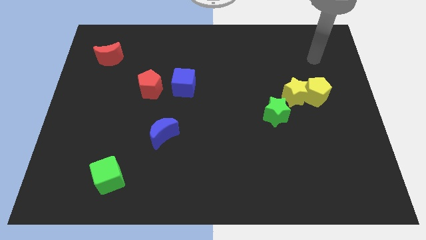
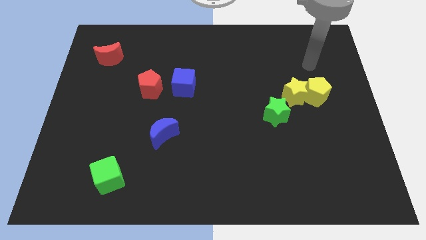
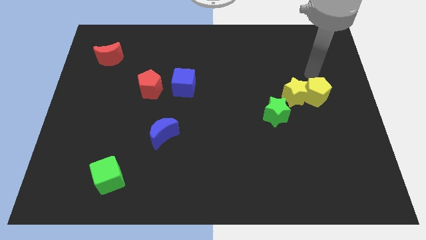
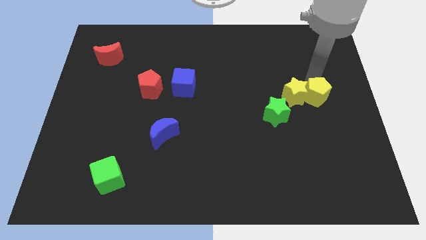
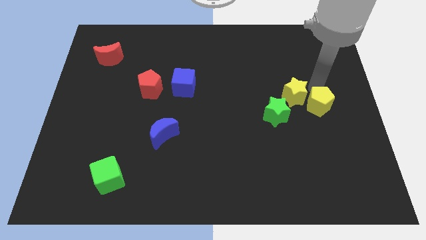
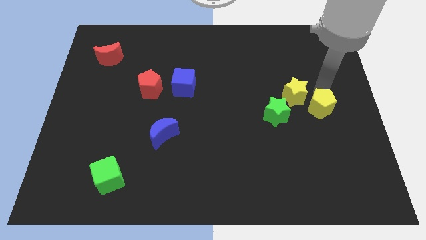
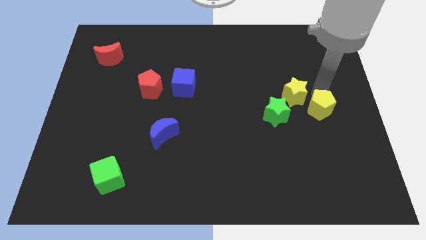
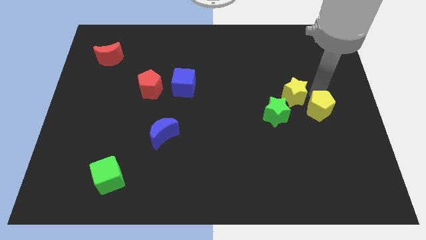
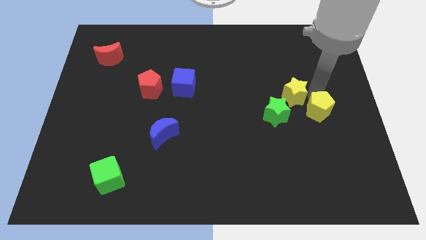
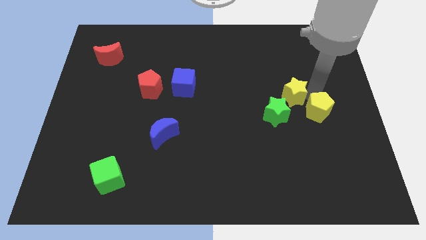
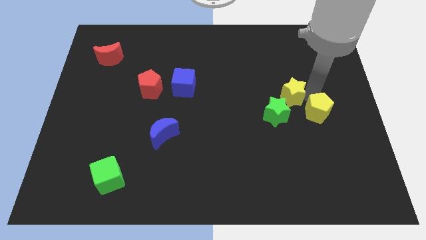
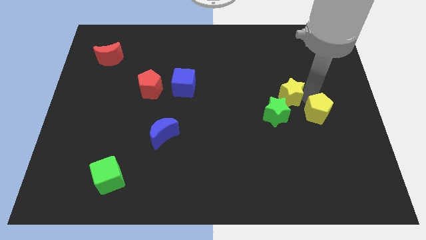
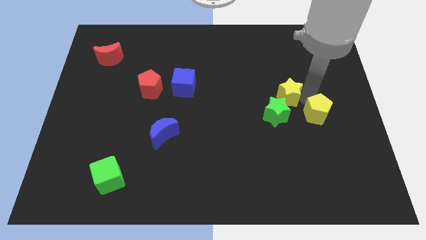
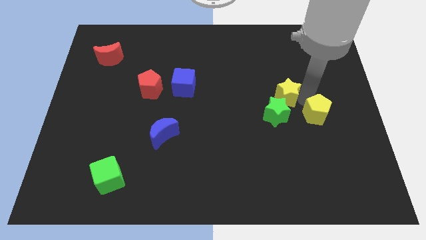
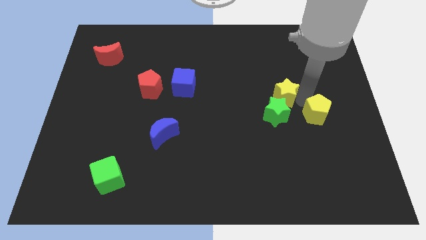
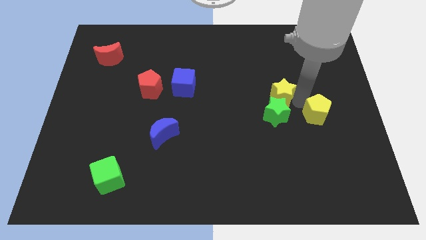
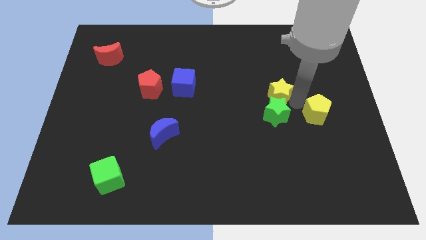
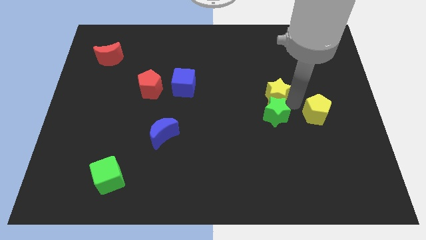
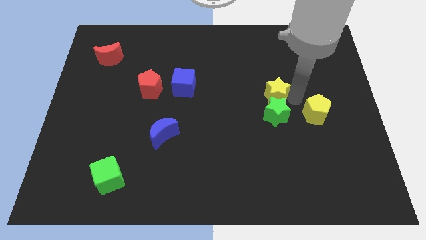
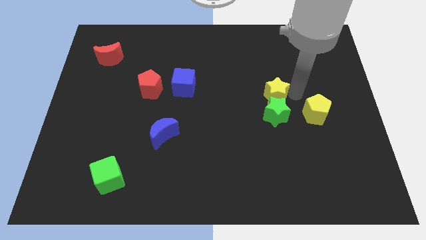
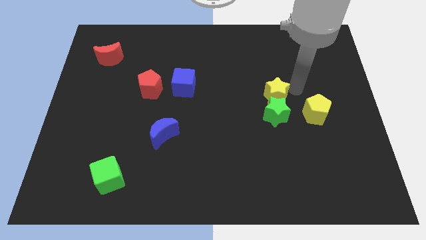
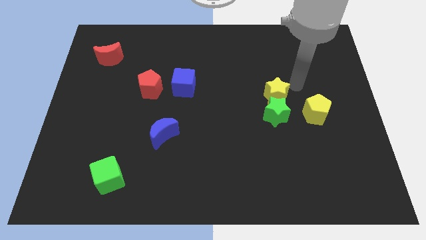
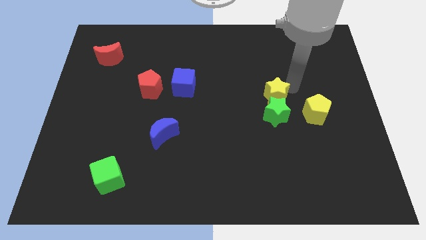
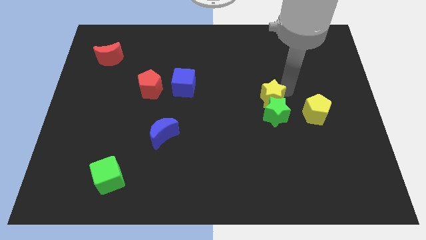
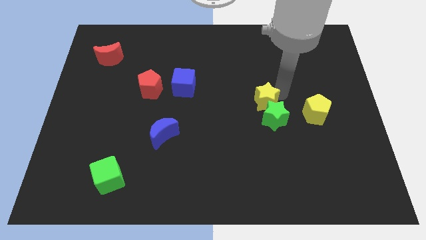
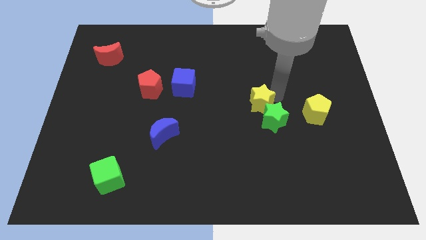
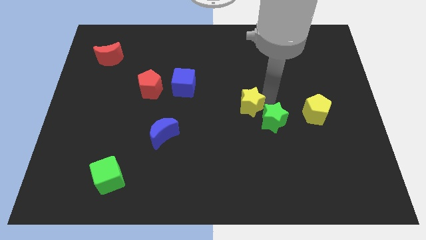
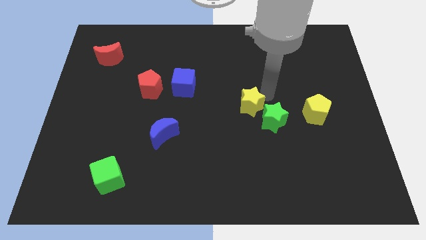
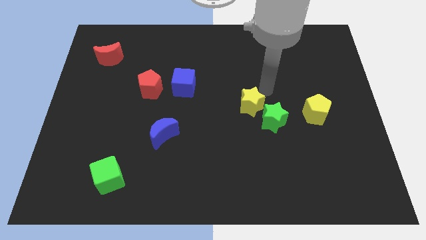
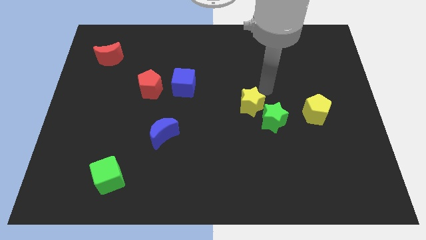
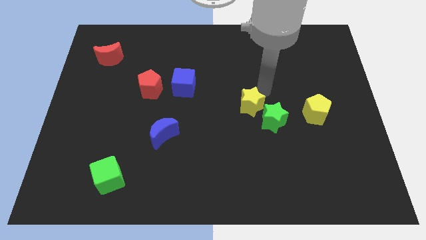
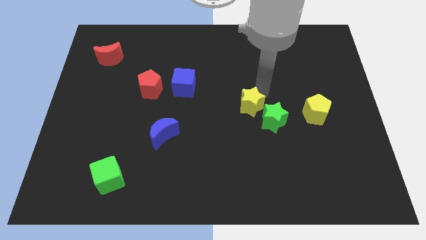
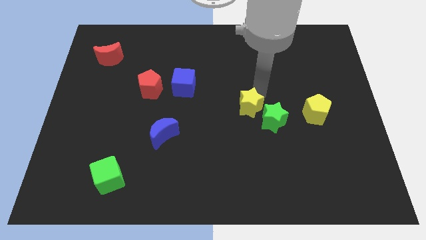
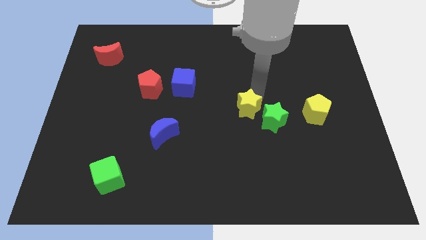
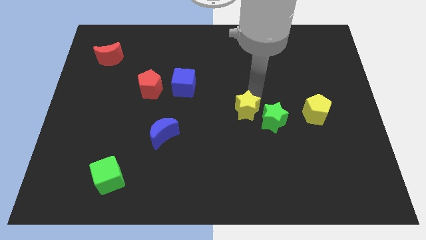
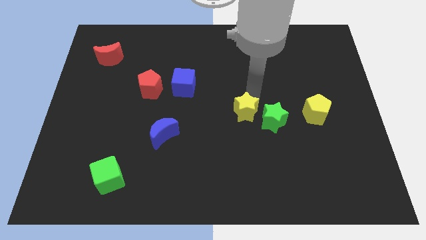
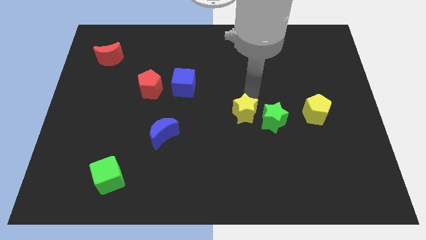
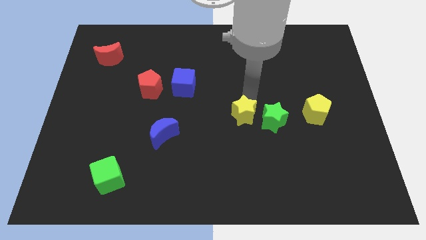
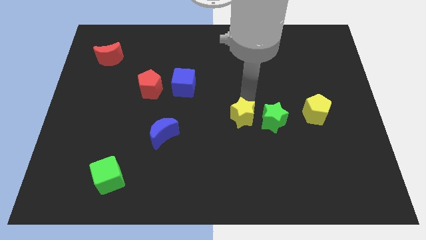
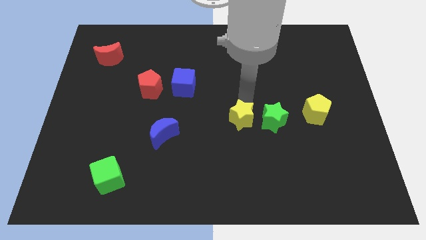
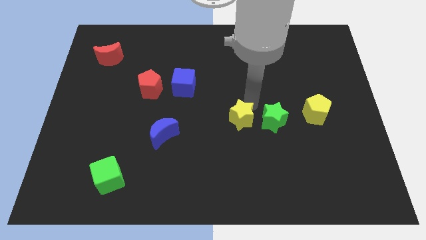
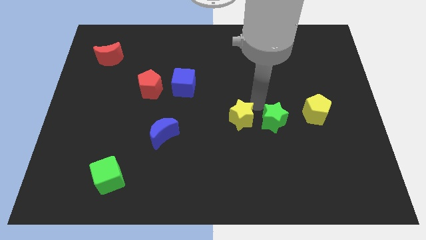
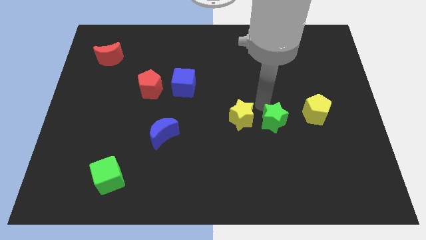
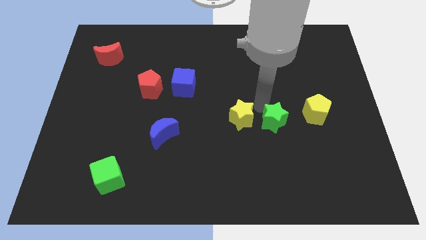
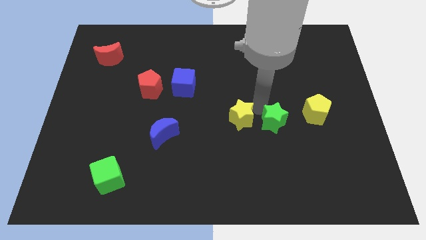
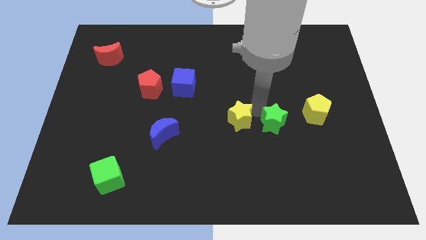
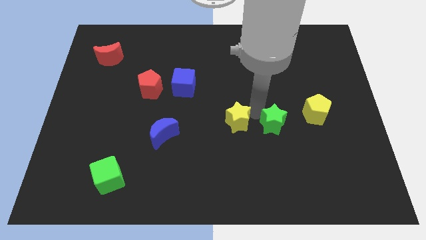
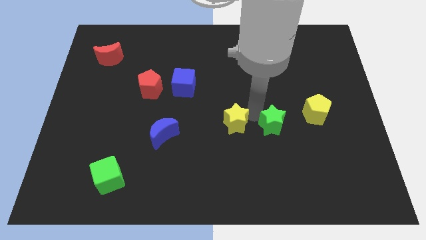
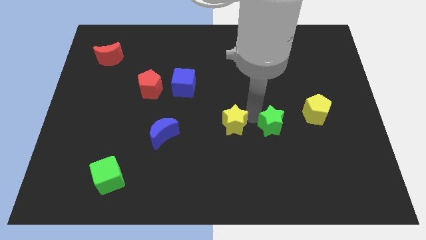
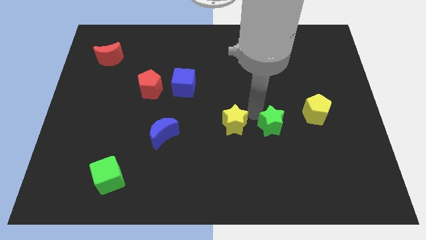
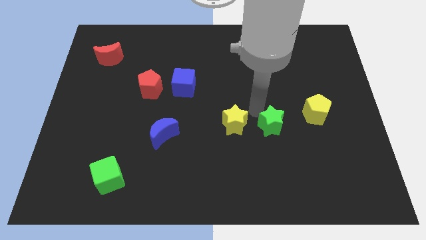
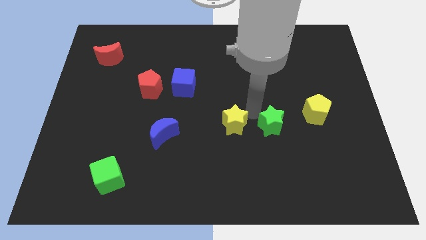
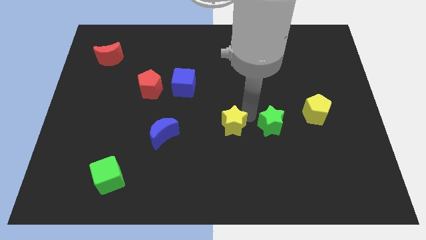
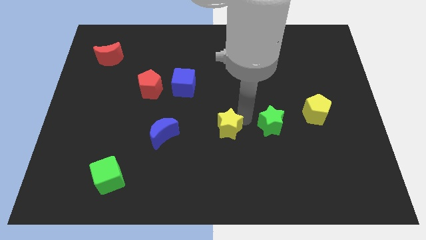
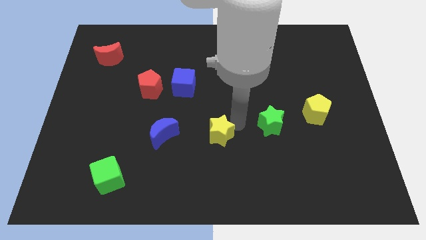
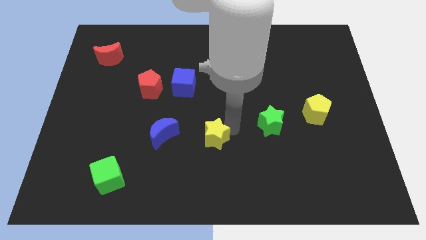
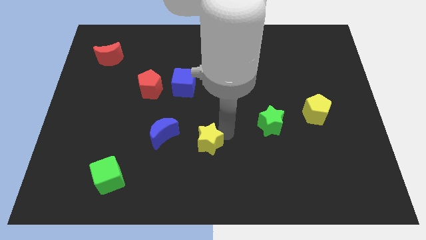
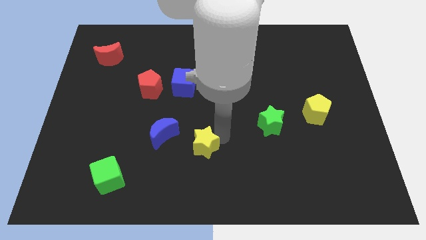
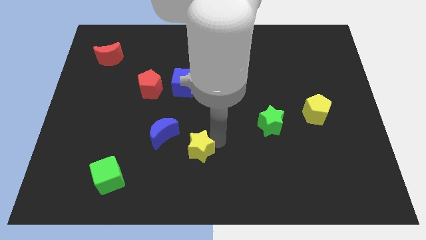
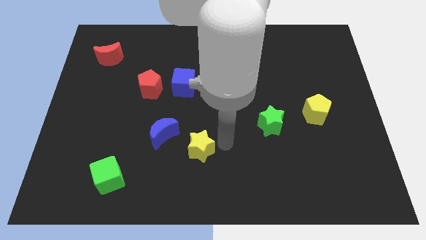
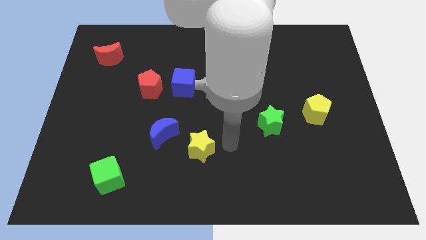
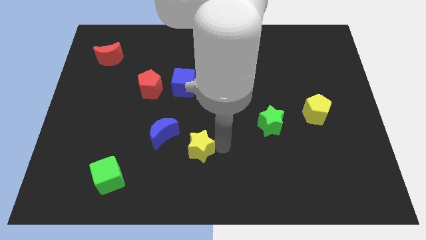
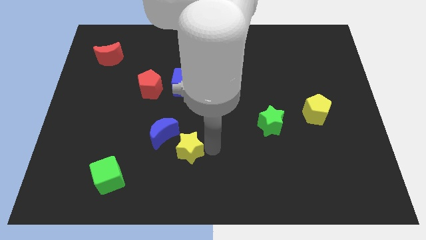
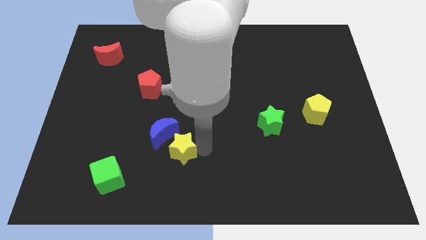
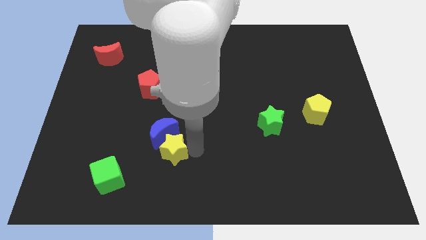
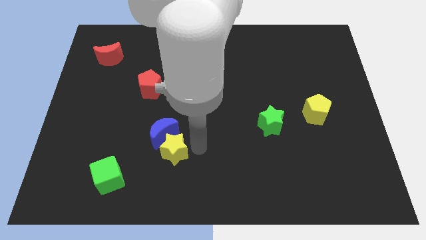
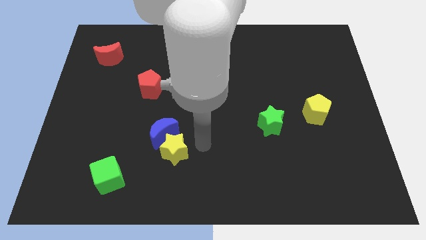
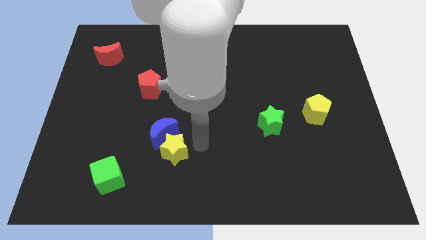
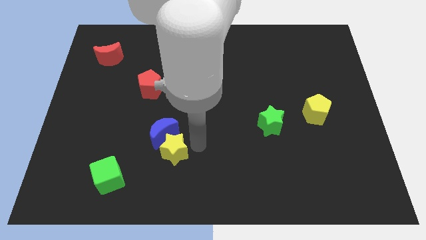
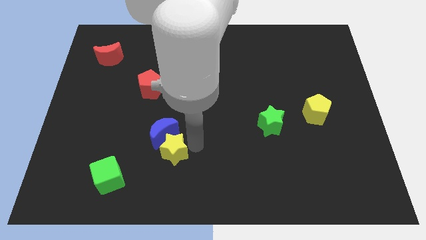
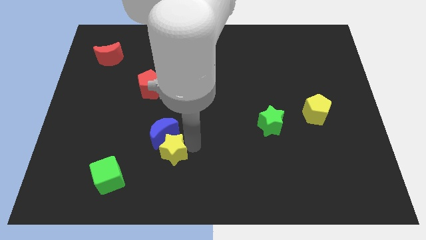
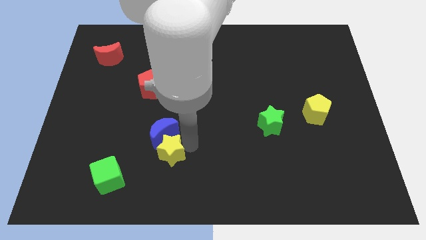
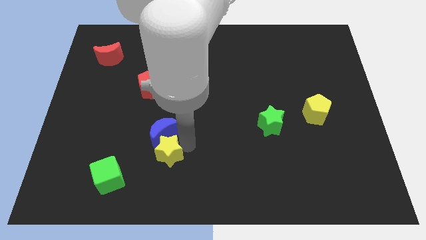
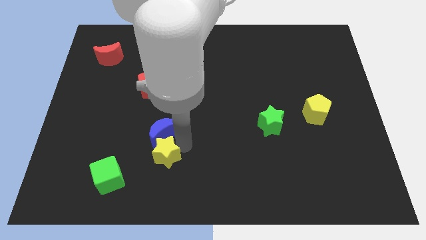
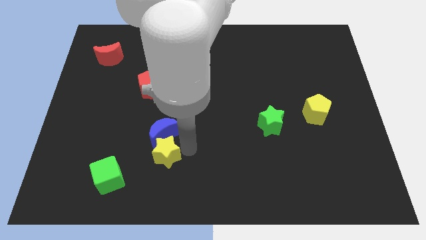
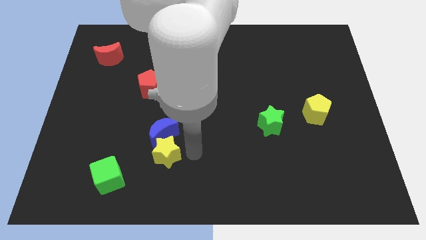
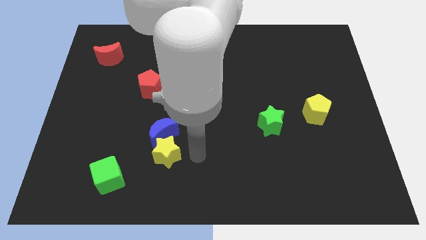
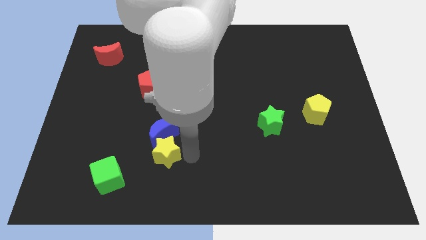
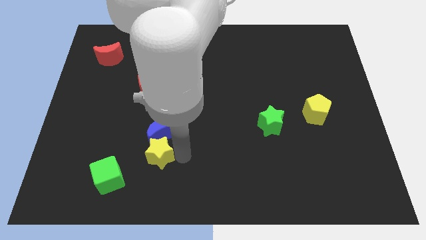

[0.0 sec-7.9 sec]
move the yellow star diagonally up and to the right of the green cube
